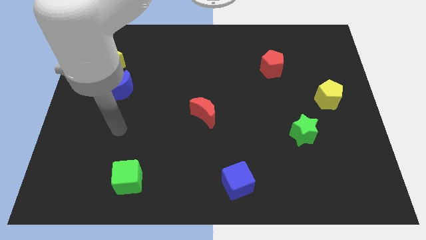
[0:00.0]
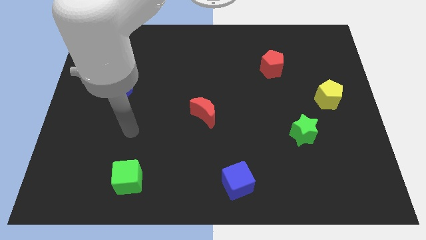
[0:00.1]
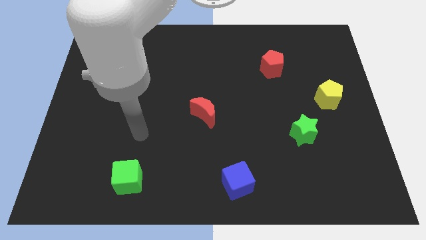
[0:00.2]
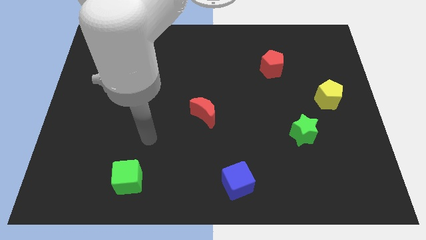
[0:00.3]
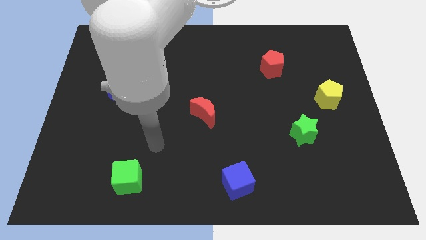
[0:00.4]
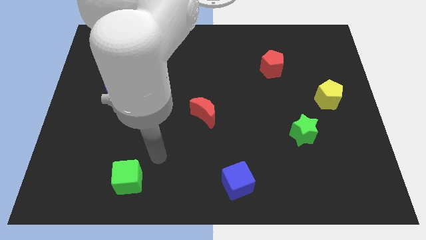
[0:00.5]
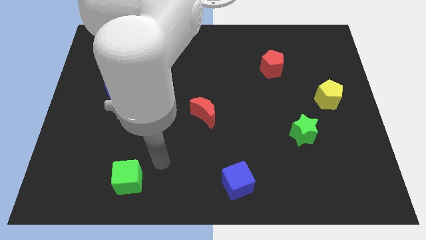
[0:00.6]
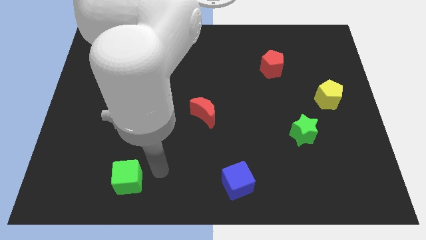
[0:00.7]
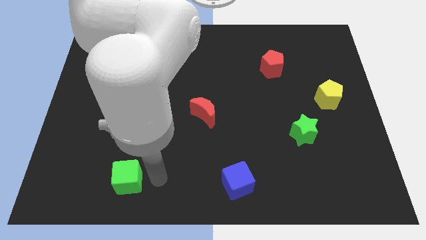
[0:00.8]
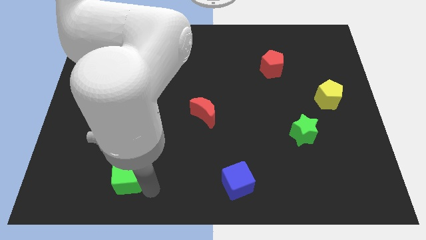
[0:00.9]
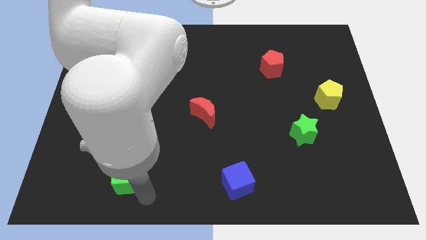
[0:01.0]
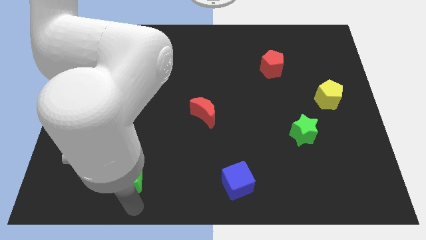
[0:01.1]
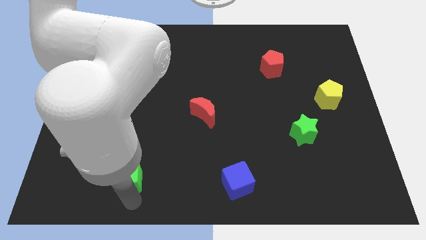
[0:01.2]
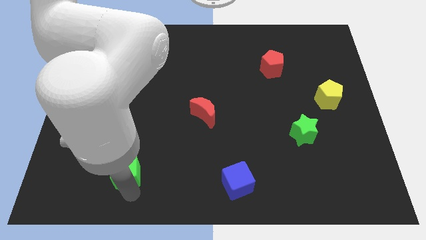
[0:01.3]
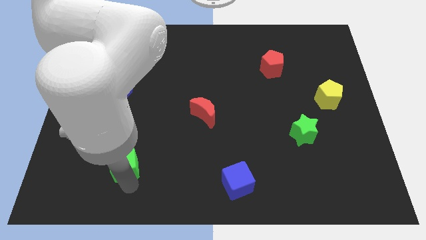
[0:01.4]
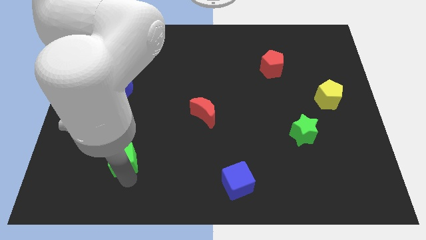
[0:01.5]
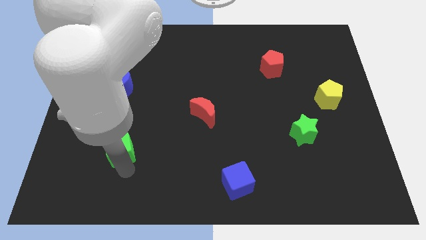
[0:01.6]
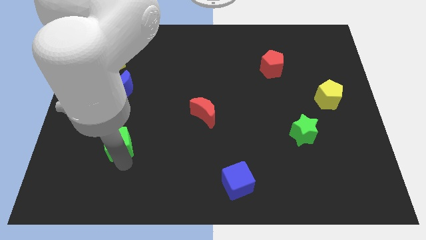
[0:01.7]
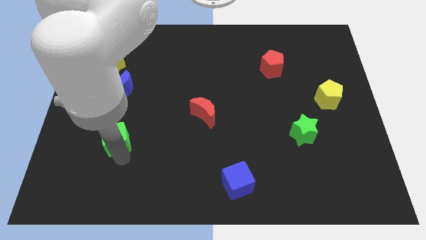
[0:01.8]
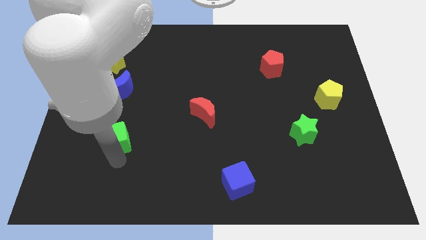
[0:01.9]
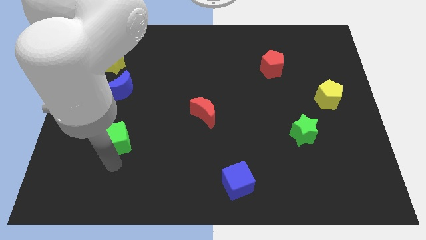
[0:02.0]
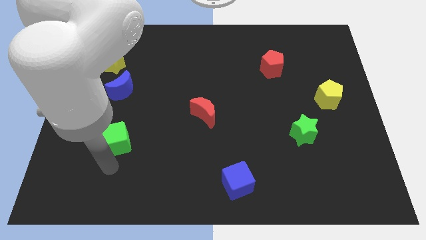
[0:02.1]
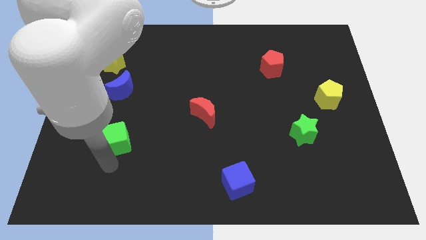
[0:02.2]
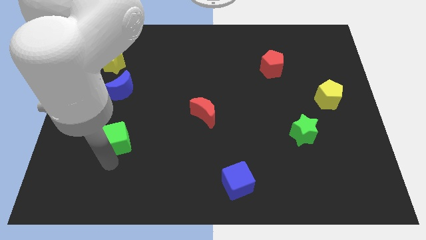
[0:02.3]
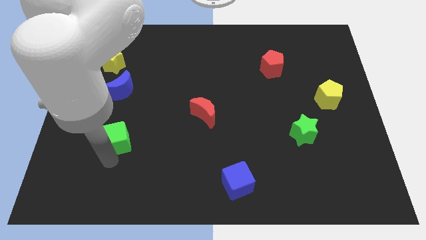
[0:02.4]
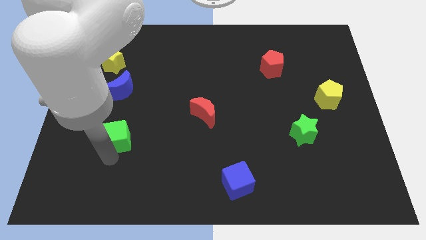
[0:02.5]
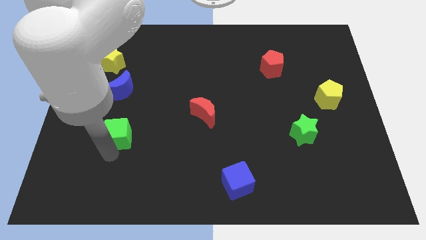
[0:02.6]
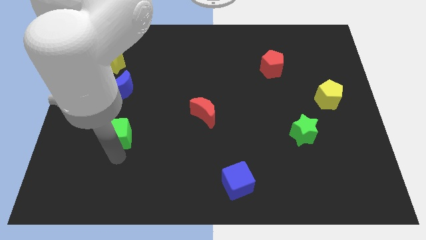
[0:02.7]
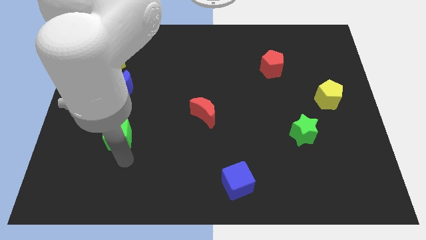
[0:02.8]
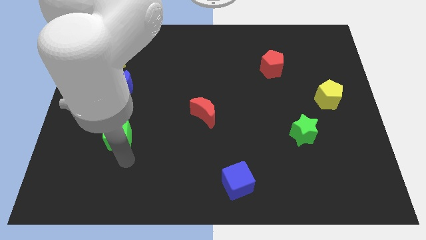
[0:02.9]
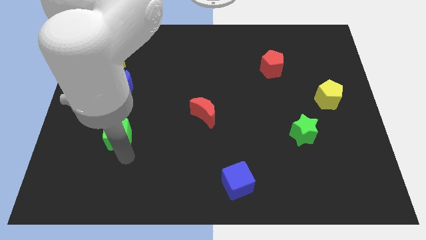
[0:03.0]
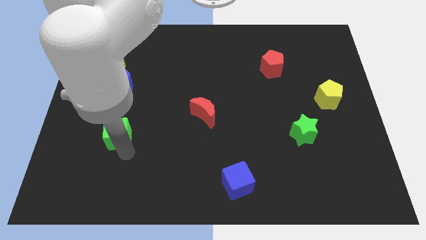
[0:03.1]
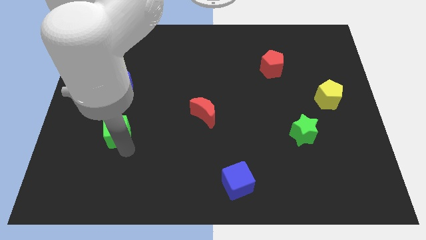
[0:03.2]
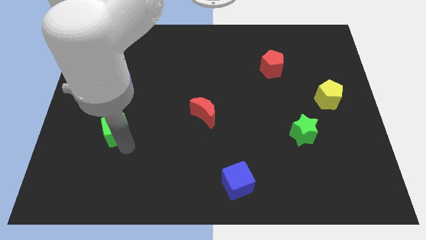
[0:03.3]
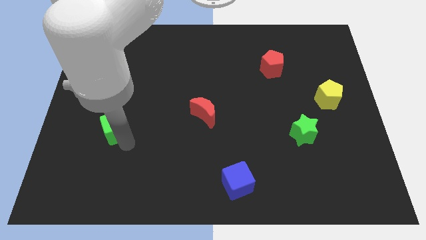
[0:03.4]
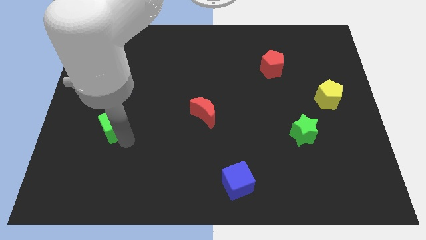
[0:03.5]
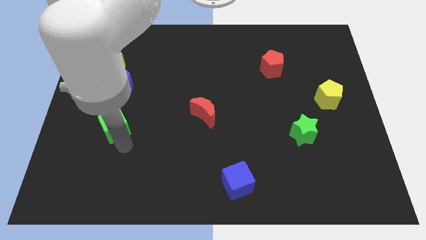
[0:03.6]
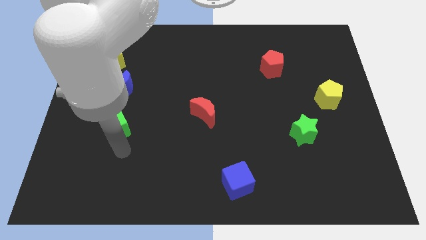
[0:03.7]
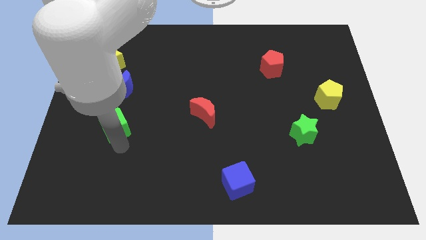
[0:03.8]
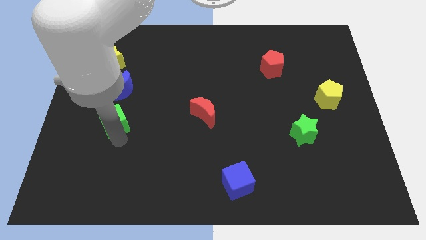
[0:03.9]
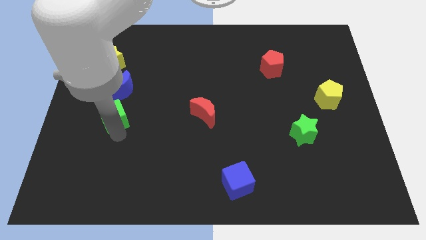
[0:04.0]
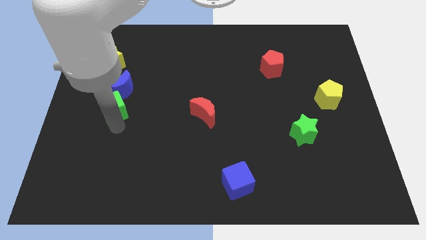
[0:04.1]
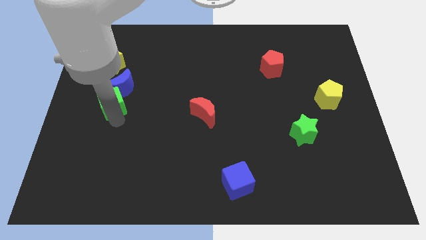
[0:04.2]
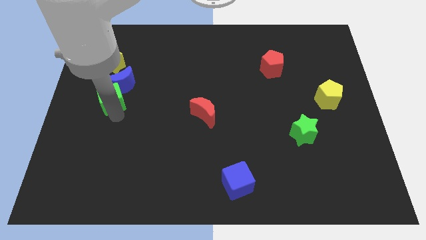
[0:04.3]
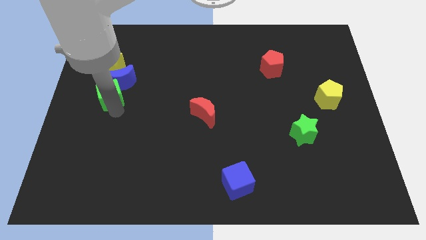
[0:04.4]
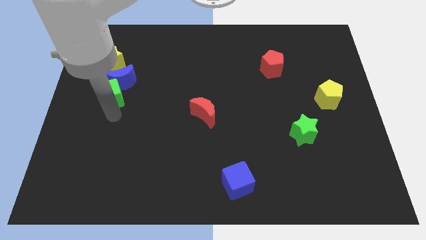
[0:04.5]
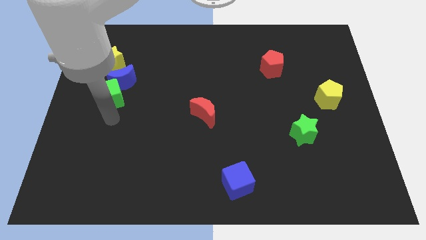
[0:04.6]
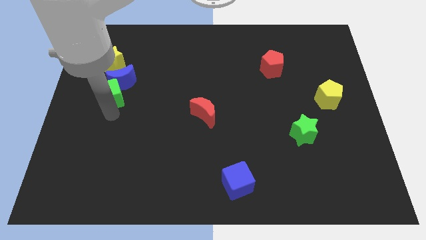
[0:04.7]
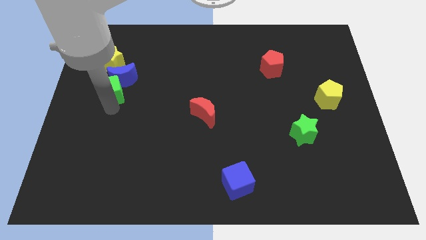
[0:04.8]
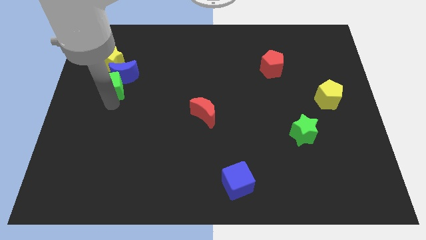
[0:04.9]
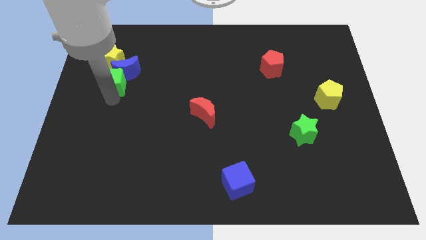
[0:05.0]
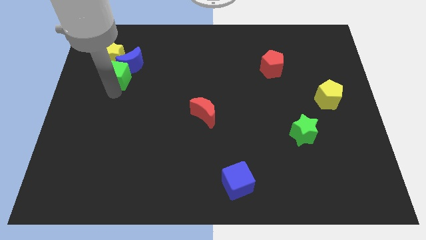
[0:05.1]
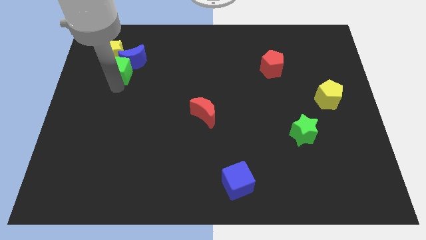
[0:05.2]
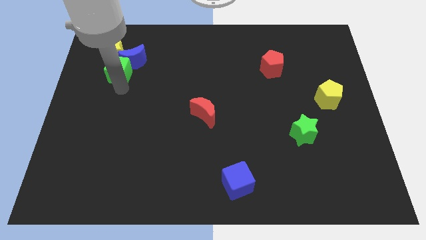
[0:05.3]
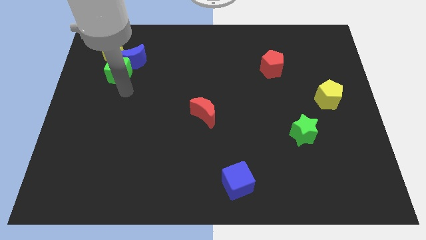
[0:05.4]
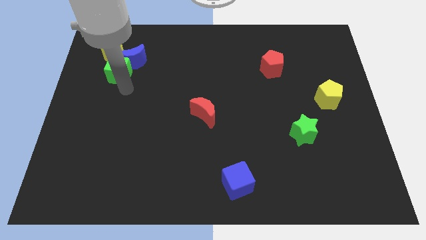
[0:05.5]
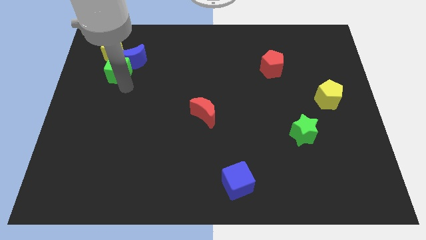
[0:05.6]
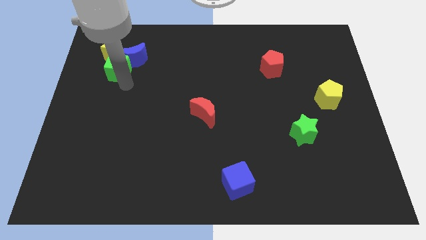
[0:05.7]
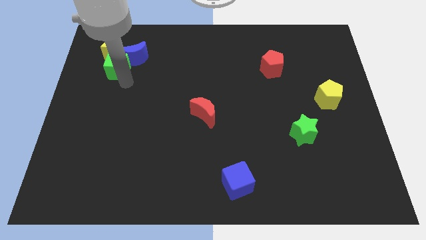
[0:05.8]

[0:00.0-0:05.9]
push the green cube to the yellow star

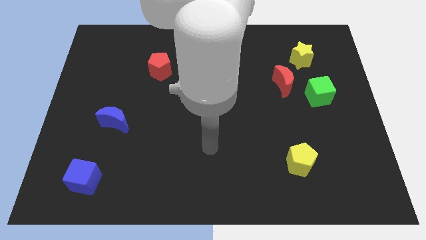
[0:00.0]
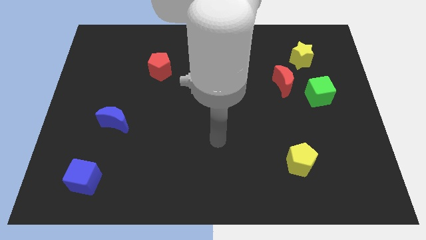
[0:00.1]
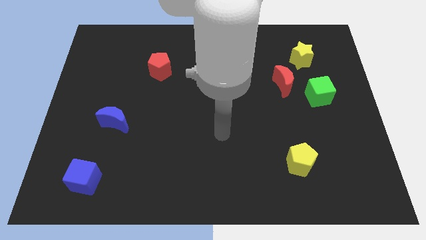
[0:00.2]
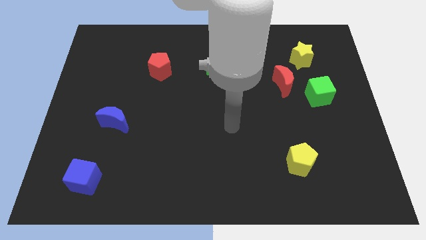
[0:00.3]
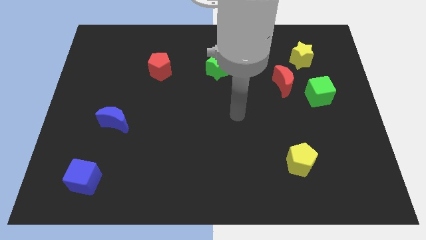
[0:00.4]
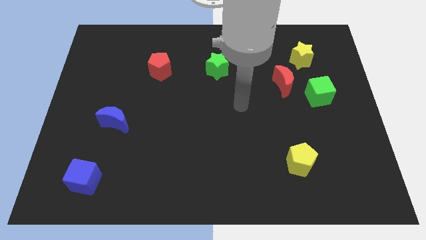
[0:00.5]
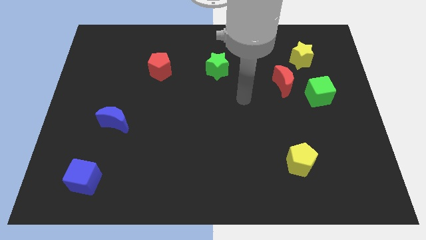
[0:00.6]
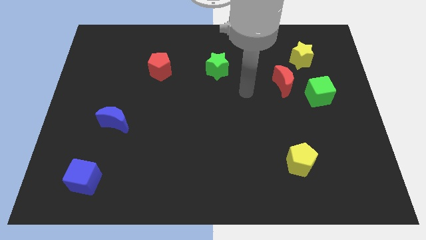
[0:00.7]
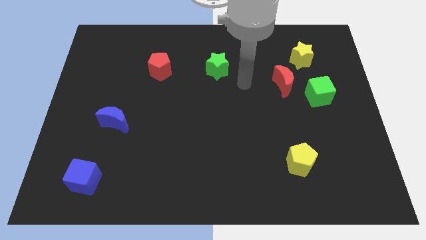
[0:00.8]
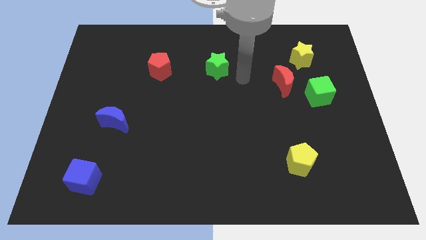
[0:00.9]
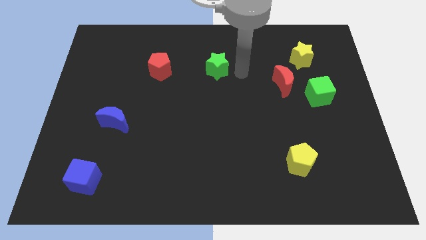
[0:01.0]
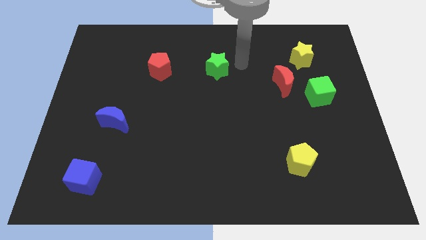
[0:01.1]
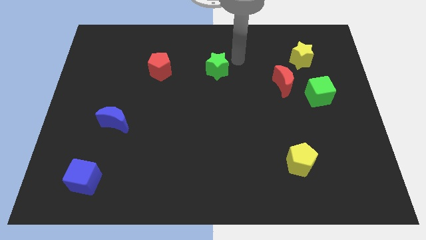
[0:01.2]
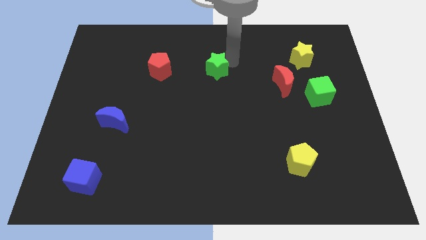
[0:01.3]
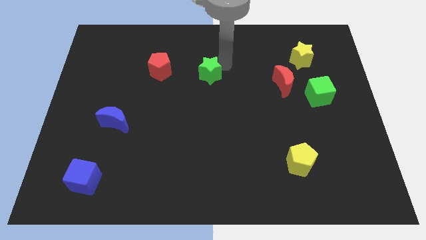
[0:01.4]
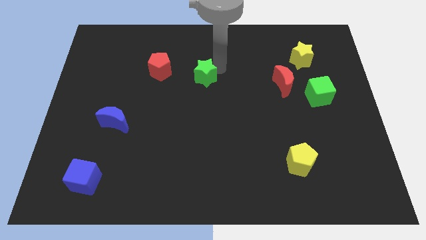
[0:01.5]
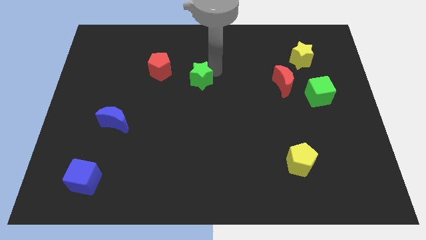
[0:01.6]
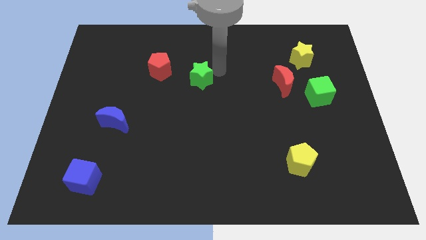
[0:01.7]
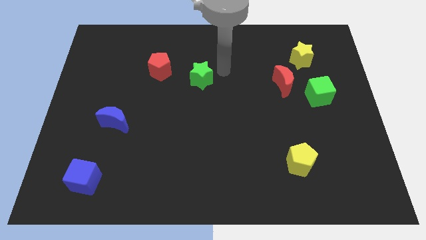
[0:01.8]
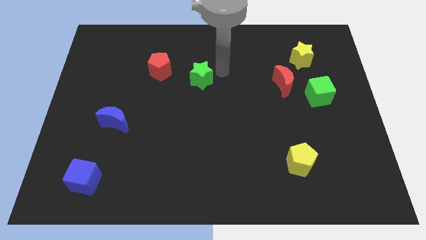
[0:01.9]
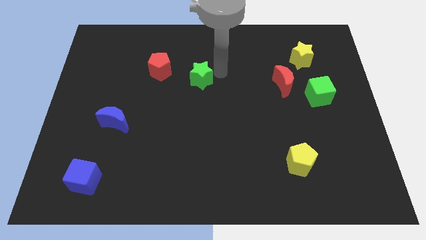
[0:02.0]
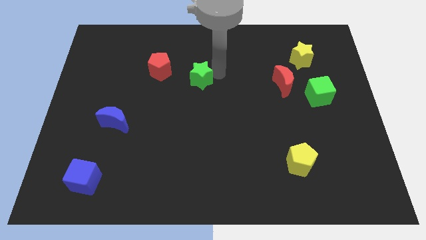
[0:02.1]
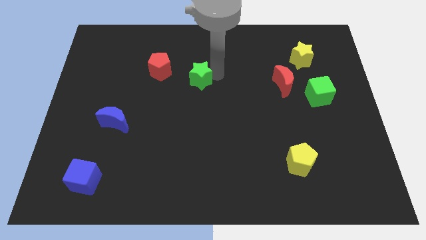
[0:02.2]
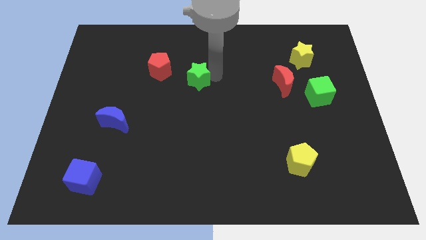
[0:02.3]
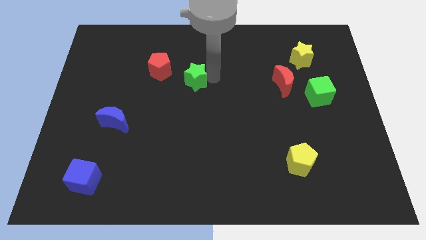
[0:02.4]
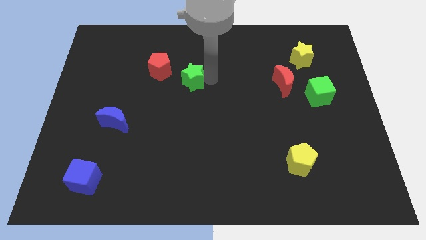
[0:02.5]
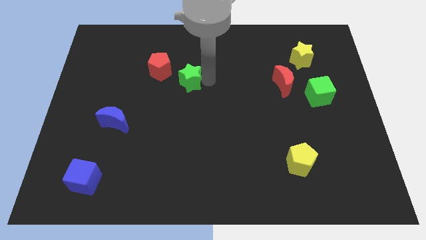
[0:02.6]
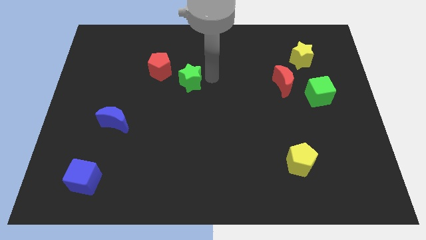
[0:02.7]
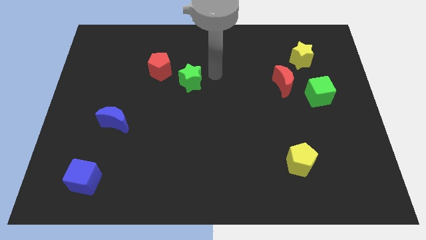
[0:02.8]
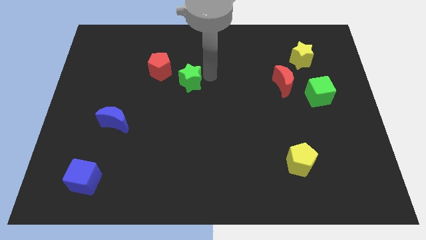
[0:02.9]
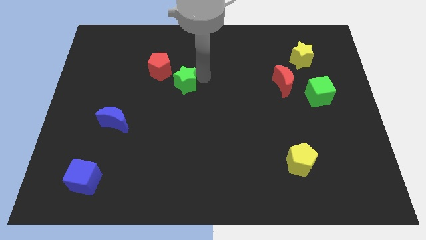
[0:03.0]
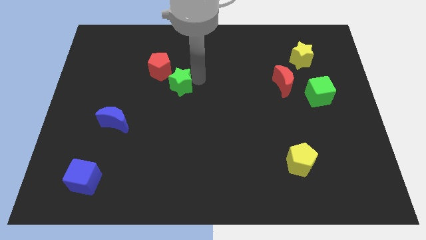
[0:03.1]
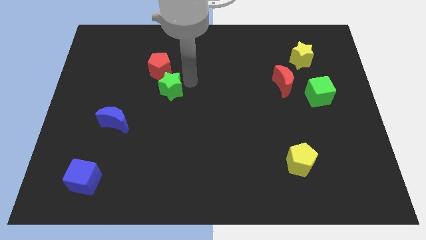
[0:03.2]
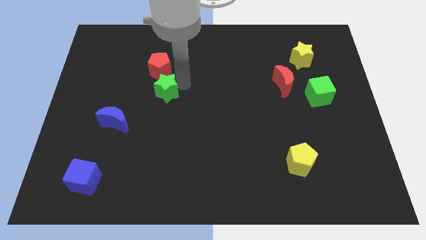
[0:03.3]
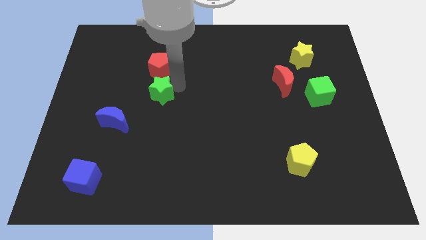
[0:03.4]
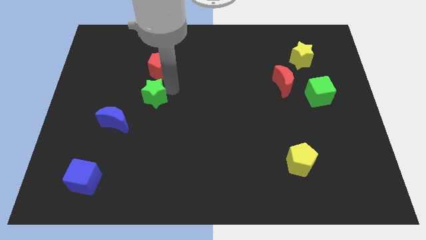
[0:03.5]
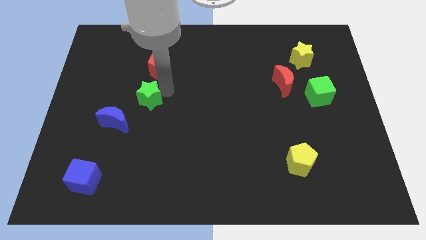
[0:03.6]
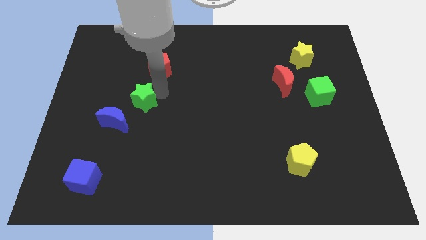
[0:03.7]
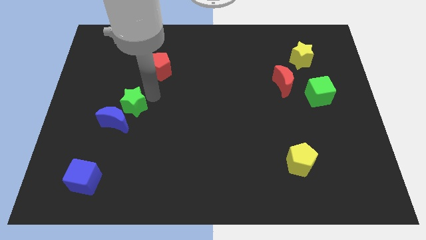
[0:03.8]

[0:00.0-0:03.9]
put the green star next to the blue moon
